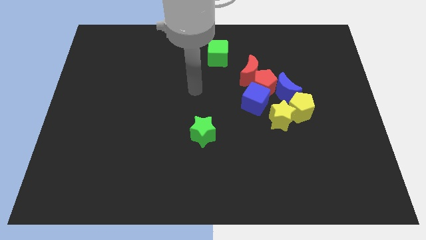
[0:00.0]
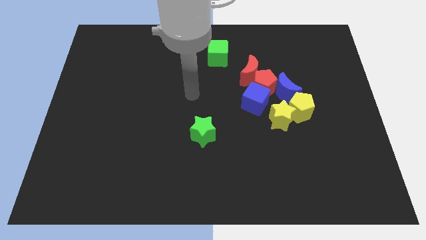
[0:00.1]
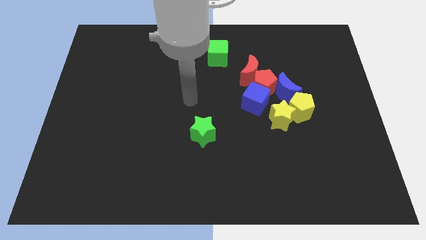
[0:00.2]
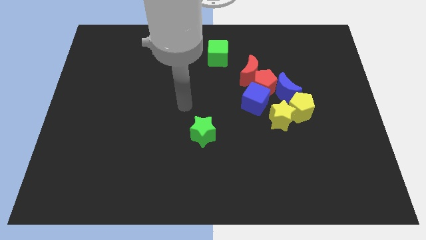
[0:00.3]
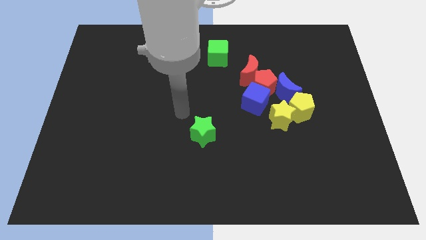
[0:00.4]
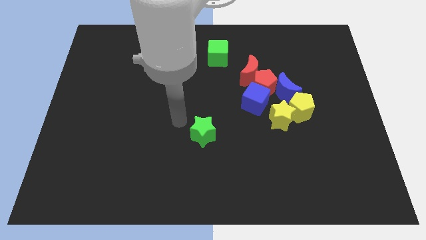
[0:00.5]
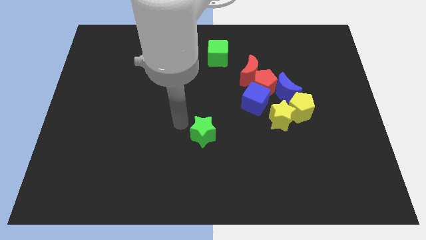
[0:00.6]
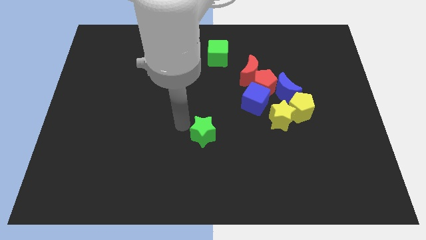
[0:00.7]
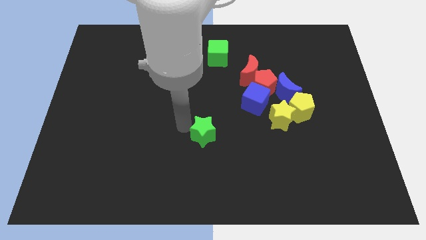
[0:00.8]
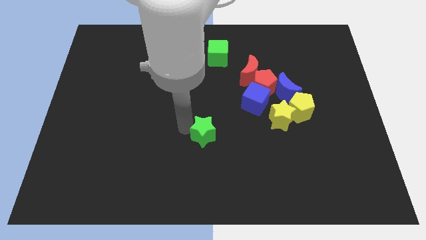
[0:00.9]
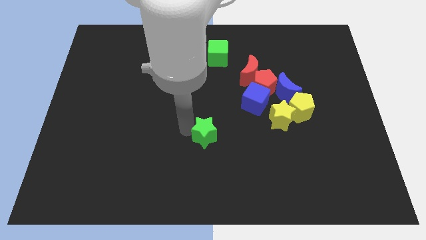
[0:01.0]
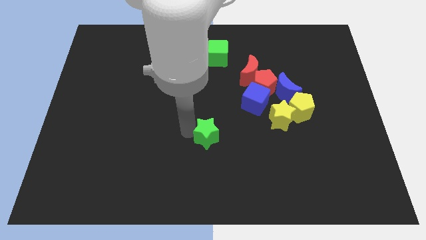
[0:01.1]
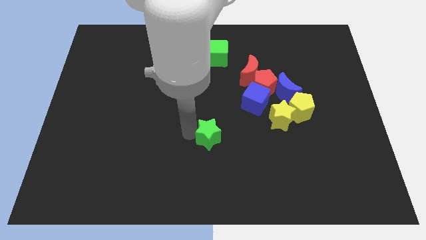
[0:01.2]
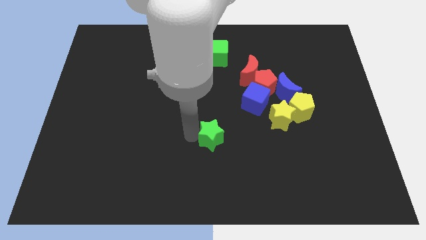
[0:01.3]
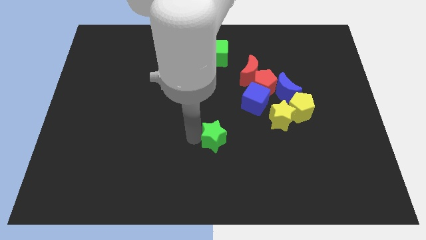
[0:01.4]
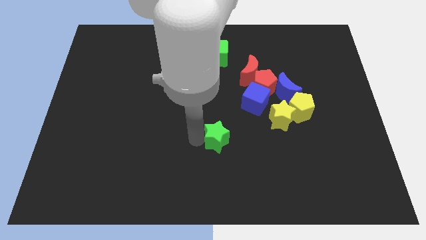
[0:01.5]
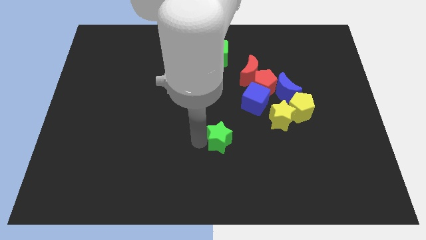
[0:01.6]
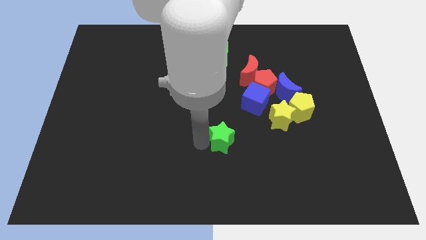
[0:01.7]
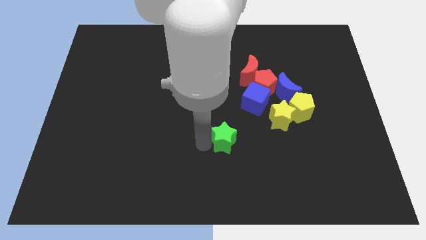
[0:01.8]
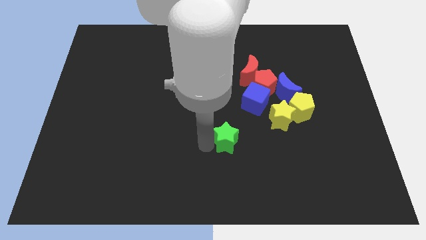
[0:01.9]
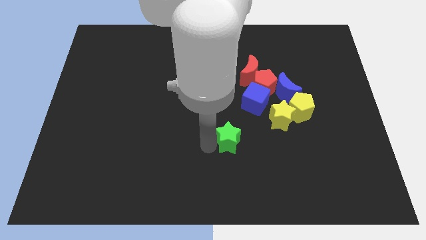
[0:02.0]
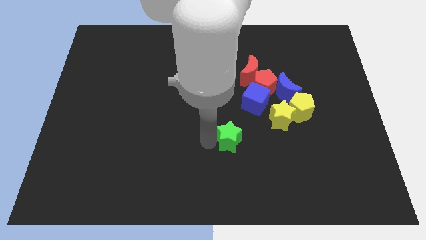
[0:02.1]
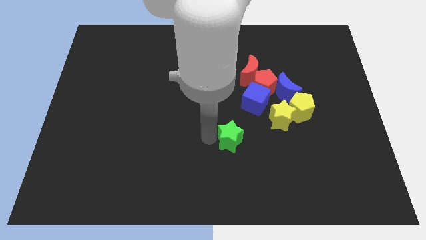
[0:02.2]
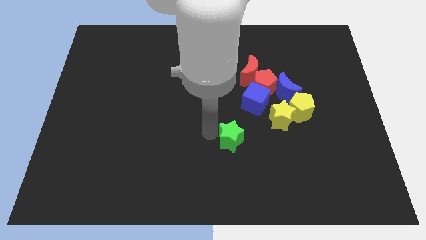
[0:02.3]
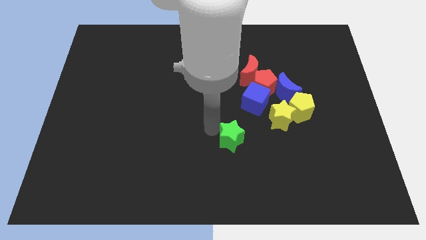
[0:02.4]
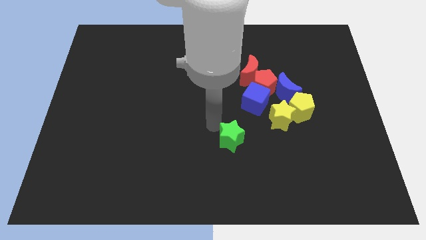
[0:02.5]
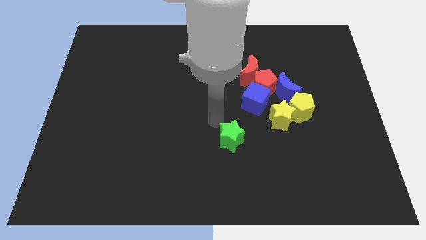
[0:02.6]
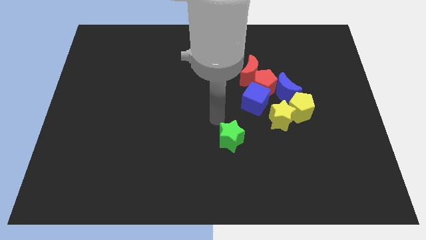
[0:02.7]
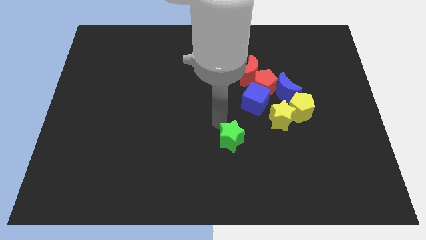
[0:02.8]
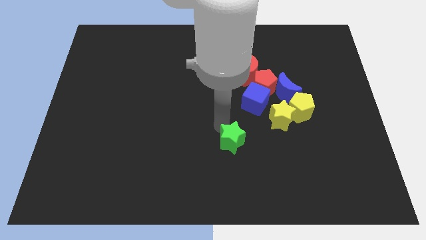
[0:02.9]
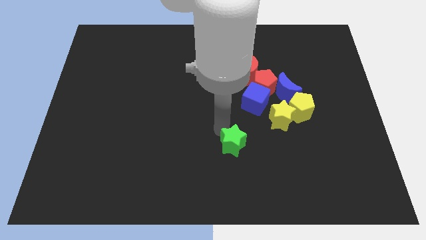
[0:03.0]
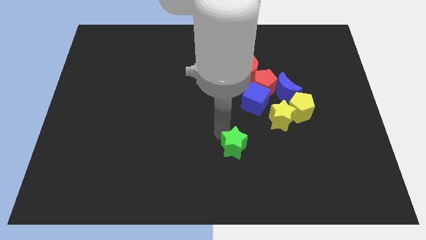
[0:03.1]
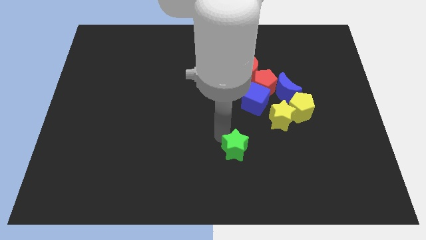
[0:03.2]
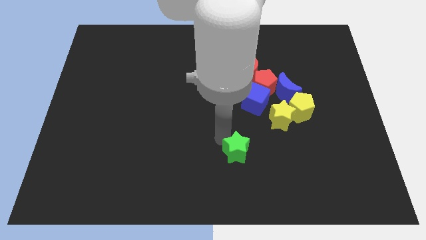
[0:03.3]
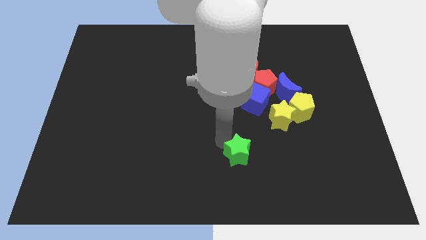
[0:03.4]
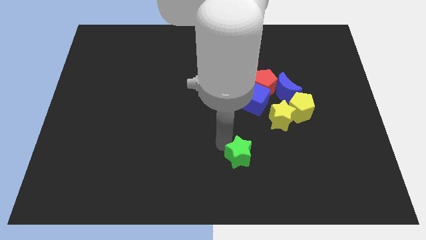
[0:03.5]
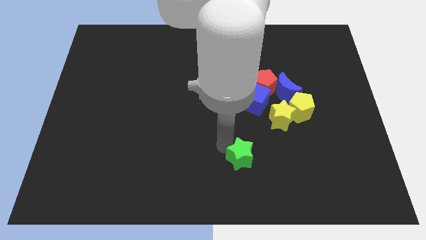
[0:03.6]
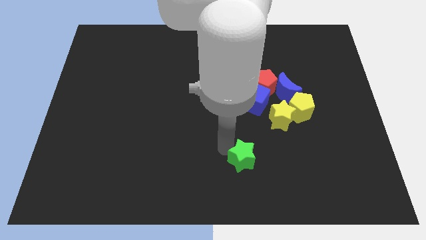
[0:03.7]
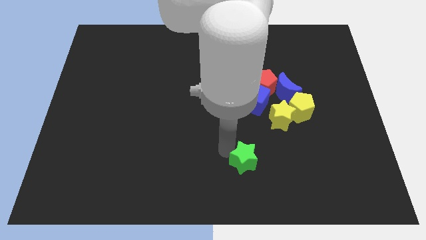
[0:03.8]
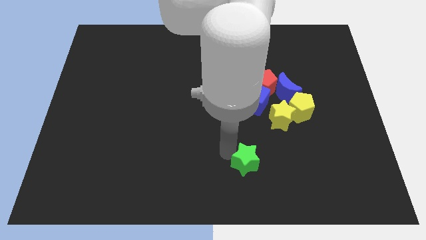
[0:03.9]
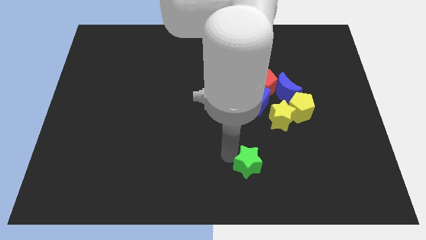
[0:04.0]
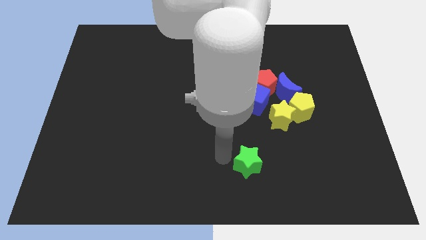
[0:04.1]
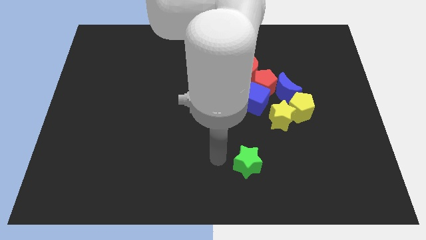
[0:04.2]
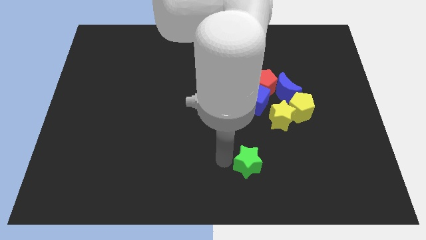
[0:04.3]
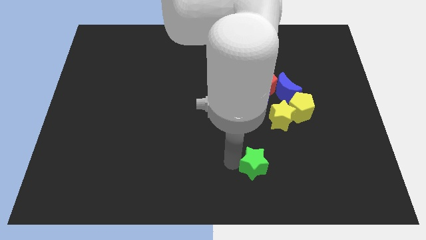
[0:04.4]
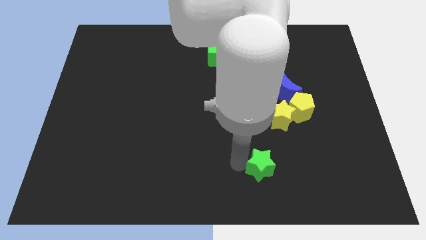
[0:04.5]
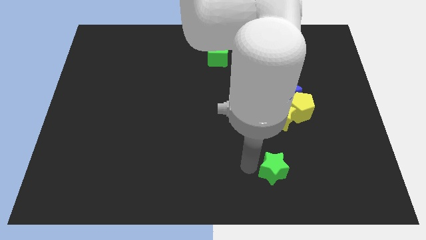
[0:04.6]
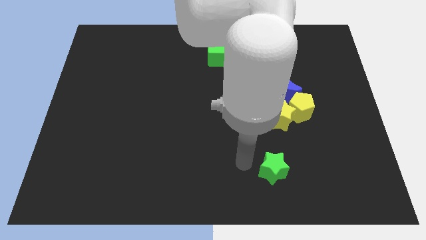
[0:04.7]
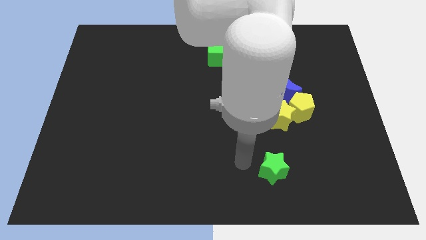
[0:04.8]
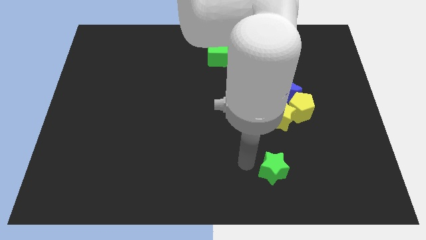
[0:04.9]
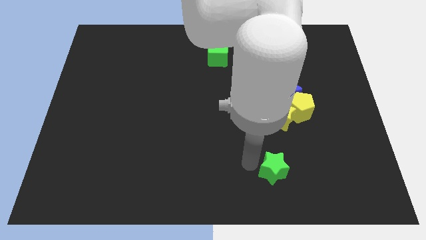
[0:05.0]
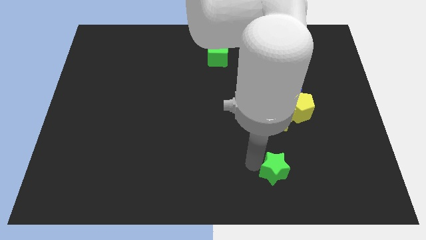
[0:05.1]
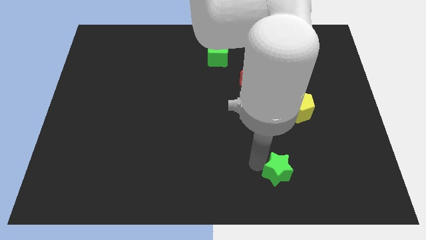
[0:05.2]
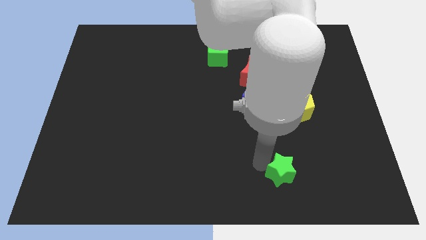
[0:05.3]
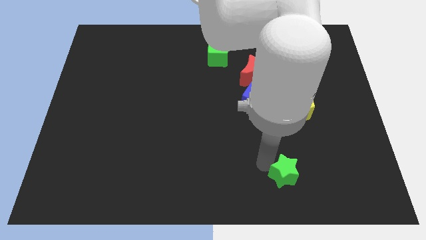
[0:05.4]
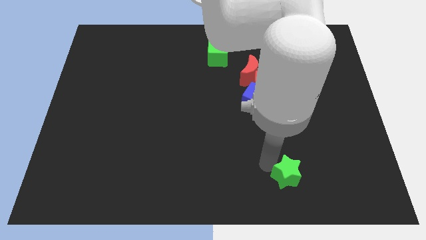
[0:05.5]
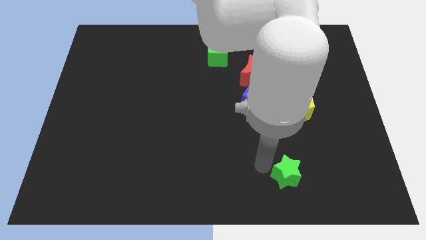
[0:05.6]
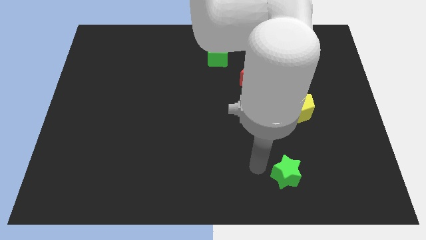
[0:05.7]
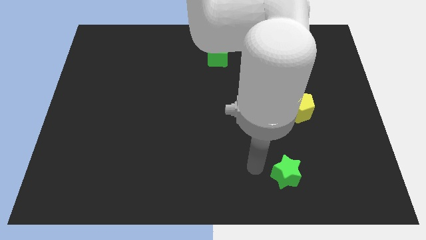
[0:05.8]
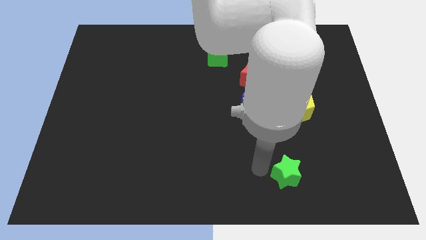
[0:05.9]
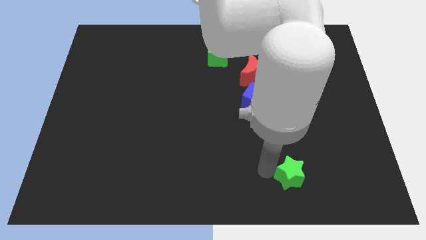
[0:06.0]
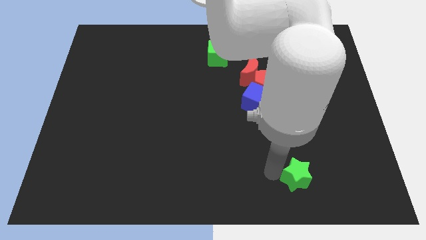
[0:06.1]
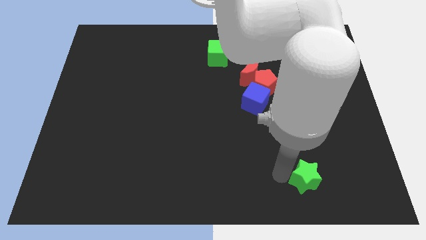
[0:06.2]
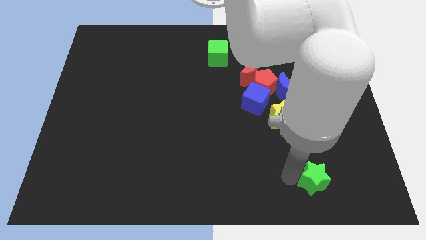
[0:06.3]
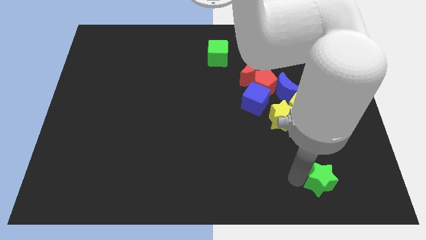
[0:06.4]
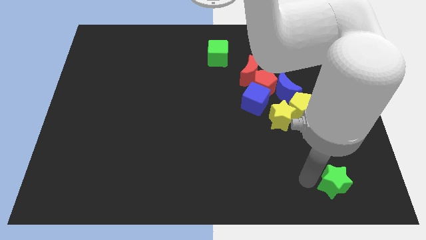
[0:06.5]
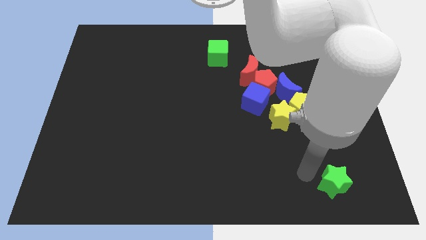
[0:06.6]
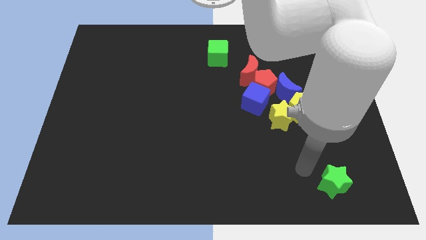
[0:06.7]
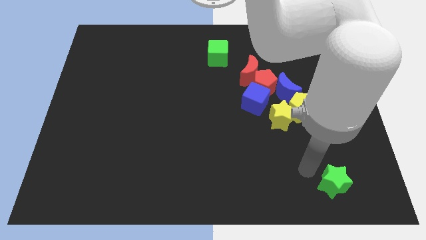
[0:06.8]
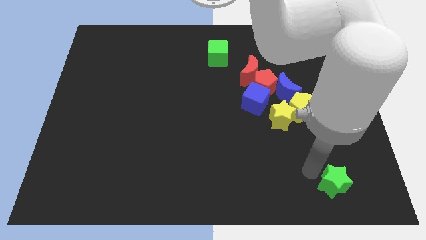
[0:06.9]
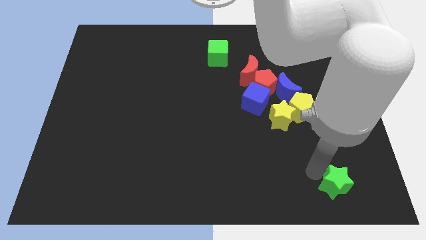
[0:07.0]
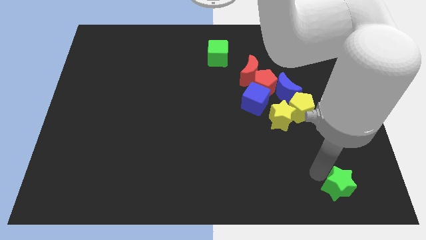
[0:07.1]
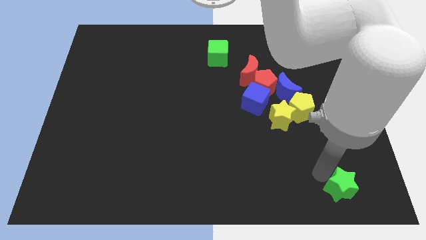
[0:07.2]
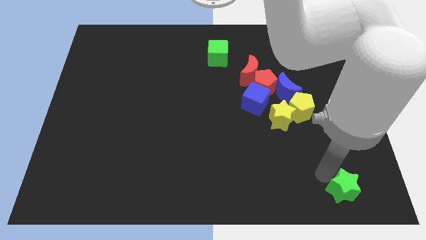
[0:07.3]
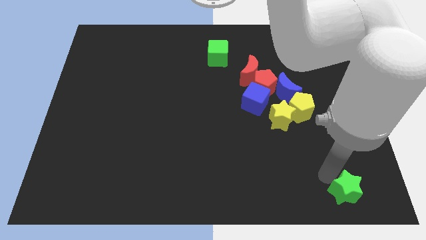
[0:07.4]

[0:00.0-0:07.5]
push the green star to the bottom right of the board
